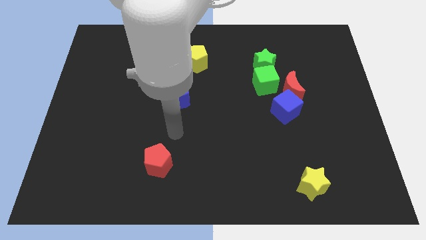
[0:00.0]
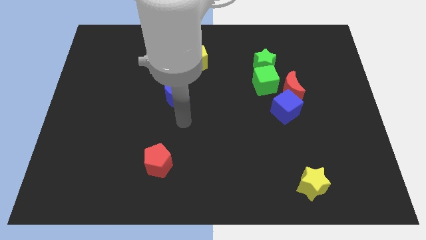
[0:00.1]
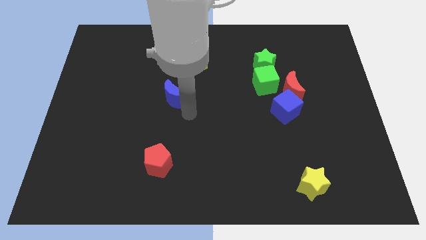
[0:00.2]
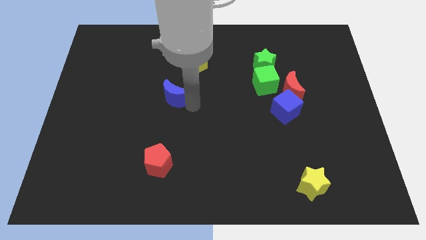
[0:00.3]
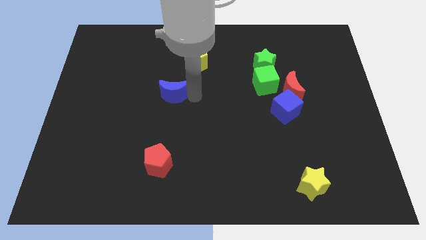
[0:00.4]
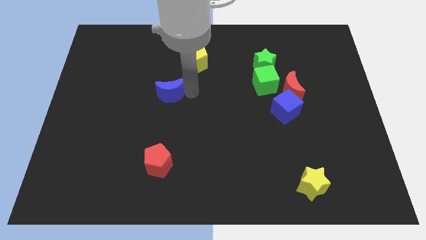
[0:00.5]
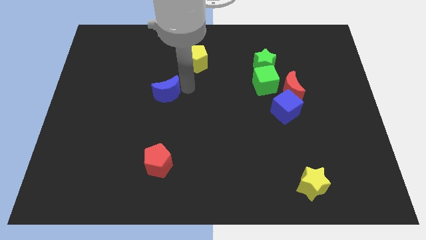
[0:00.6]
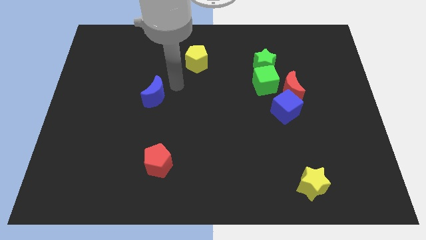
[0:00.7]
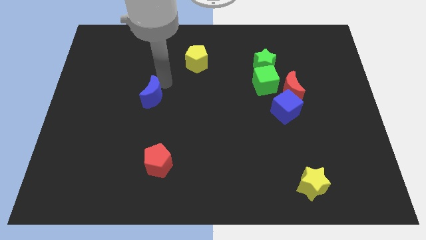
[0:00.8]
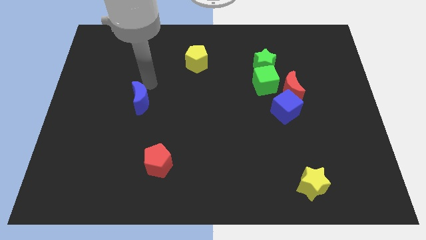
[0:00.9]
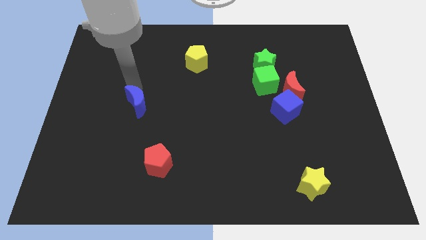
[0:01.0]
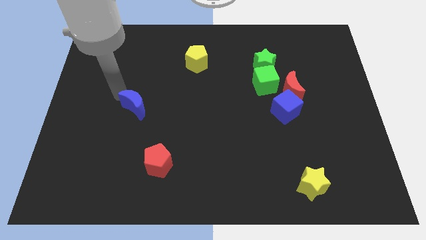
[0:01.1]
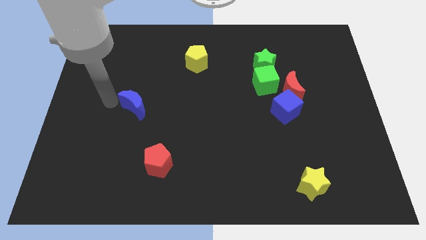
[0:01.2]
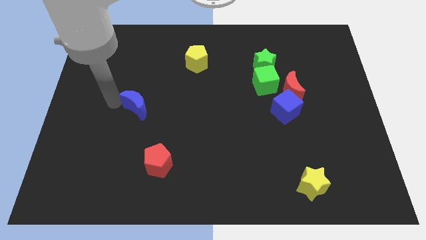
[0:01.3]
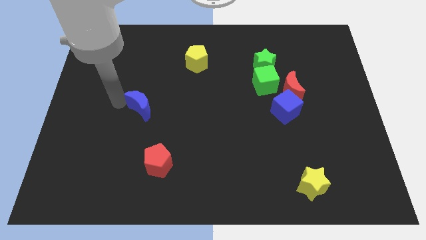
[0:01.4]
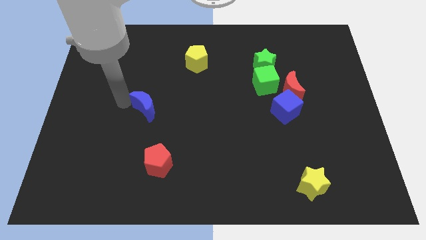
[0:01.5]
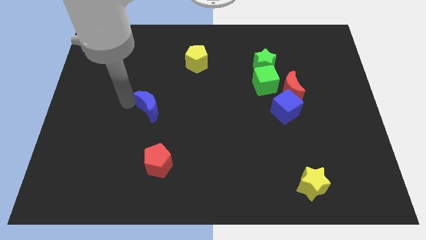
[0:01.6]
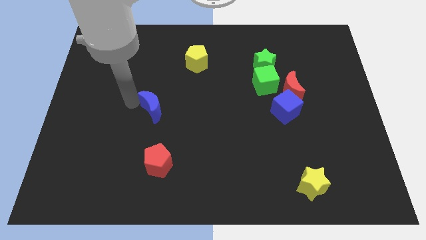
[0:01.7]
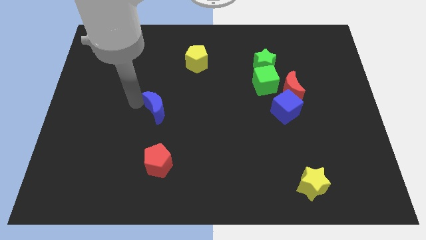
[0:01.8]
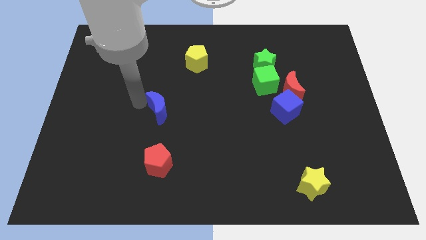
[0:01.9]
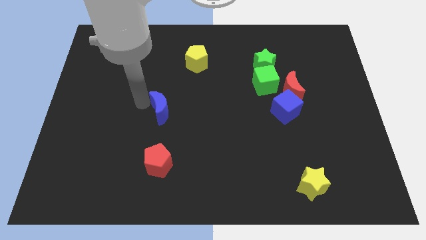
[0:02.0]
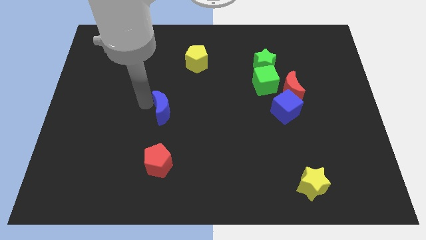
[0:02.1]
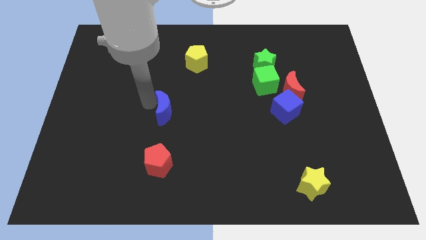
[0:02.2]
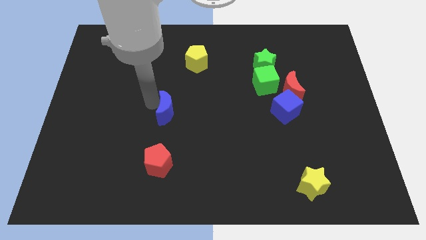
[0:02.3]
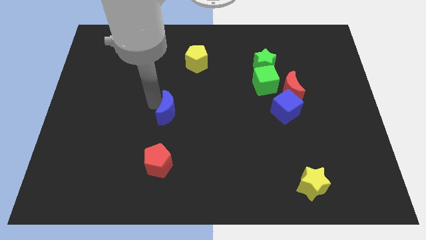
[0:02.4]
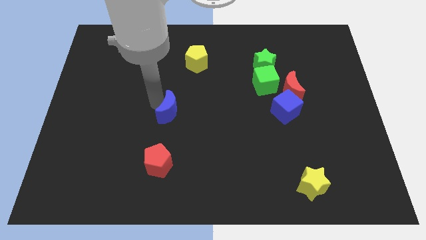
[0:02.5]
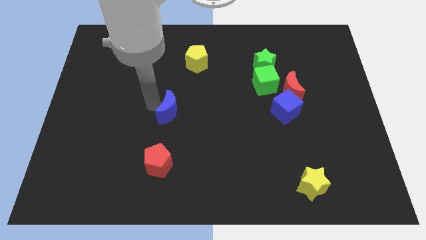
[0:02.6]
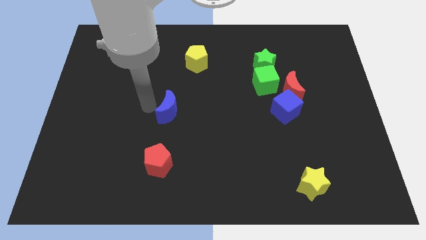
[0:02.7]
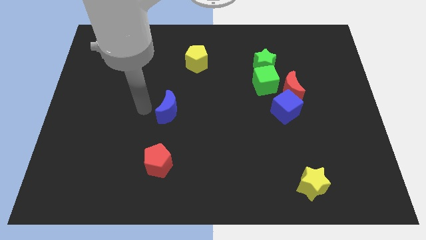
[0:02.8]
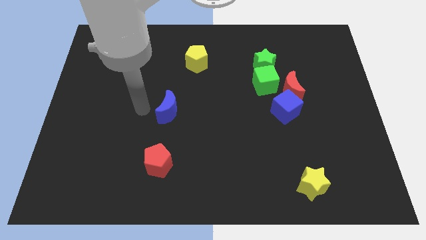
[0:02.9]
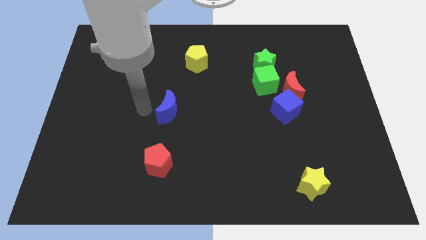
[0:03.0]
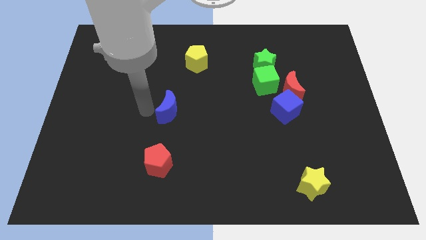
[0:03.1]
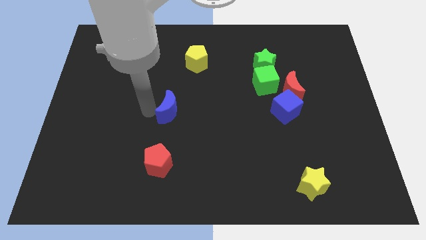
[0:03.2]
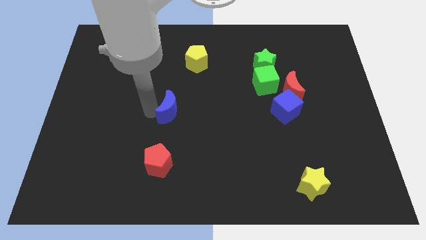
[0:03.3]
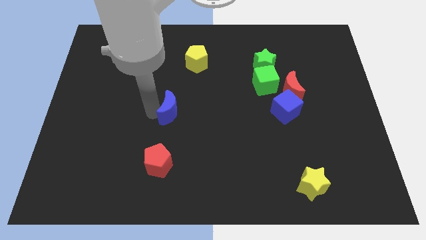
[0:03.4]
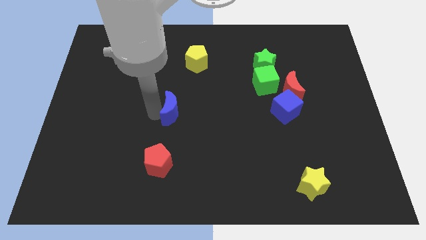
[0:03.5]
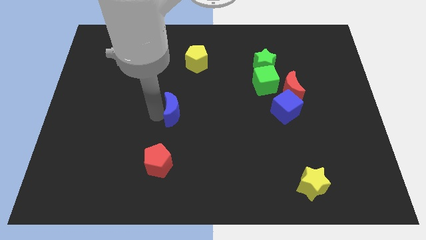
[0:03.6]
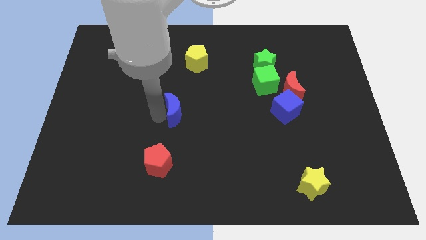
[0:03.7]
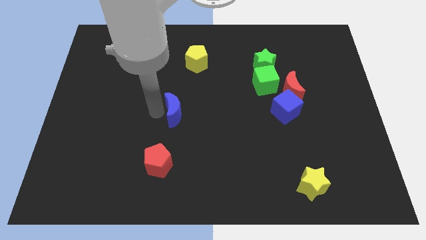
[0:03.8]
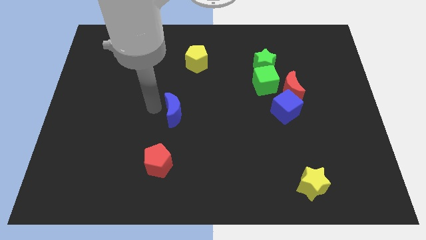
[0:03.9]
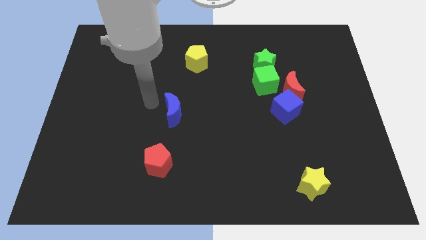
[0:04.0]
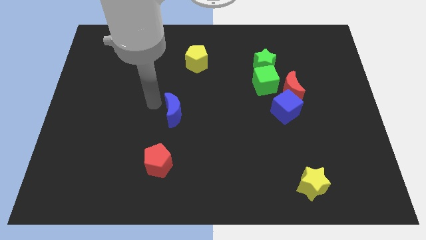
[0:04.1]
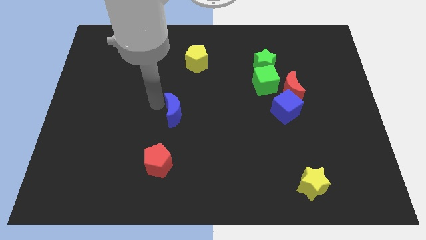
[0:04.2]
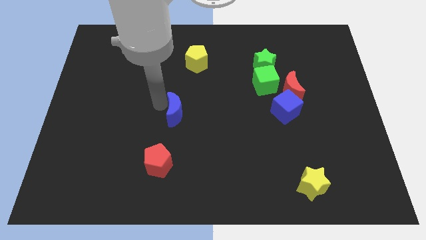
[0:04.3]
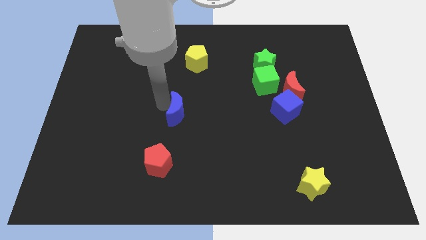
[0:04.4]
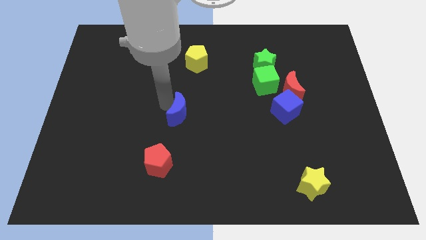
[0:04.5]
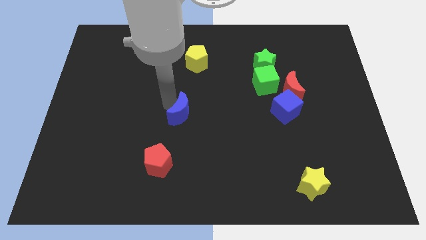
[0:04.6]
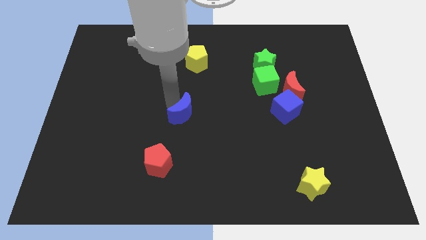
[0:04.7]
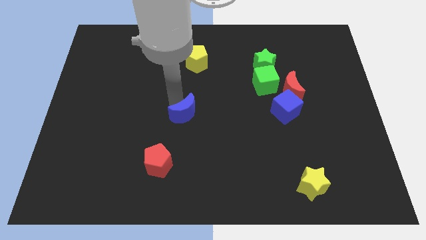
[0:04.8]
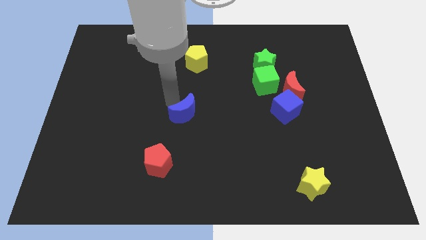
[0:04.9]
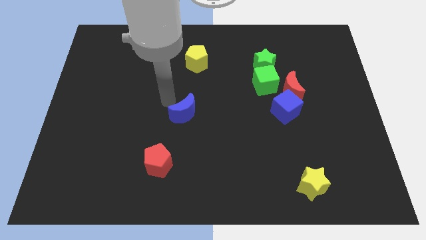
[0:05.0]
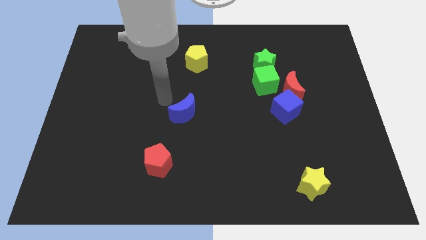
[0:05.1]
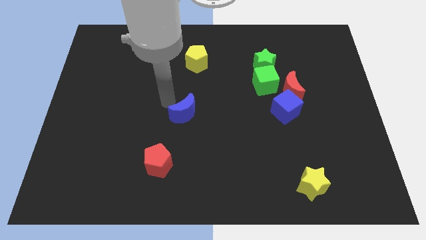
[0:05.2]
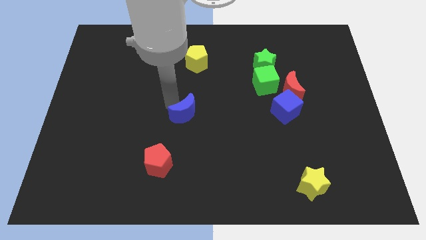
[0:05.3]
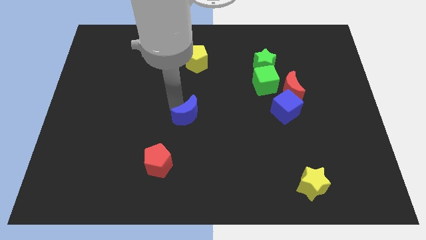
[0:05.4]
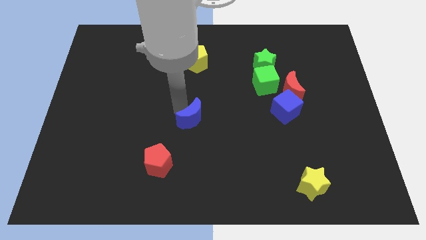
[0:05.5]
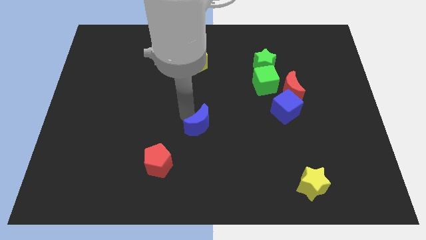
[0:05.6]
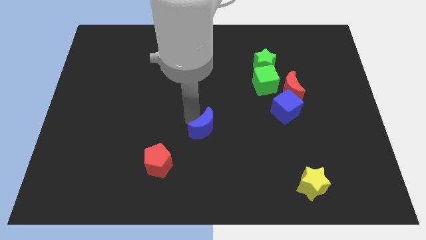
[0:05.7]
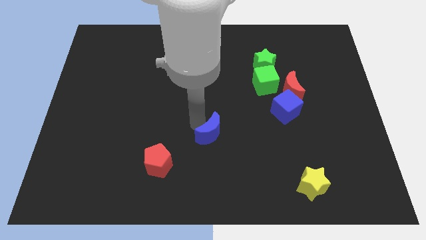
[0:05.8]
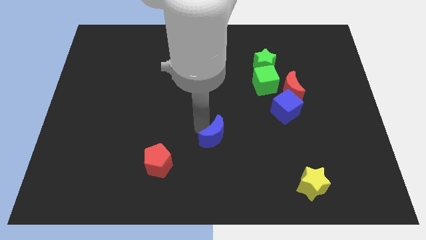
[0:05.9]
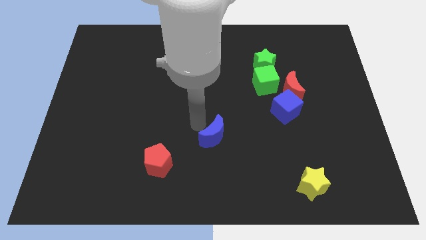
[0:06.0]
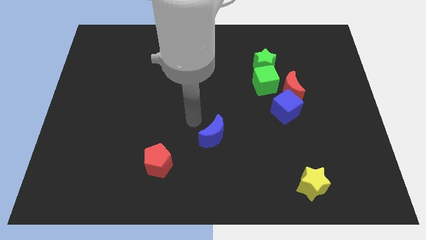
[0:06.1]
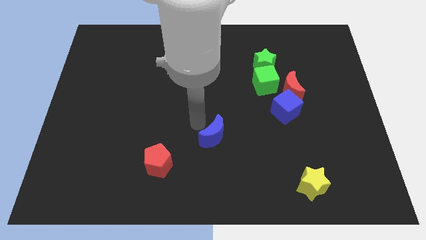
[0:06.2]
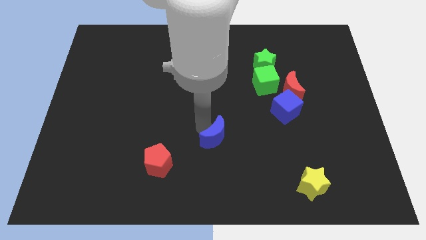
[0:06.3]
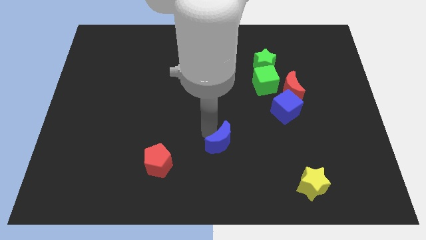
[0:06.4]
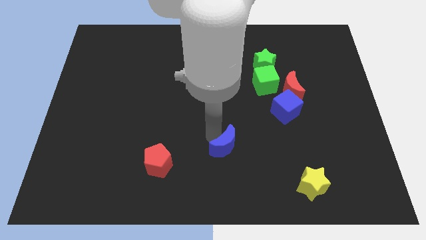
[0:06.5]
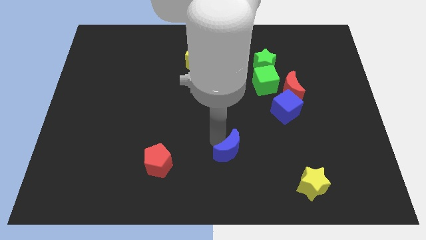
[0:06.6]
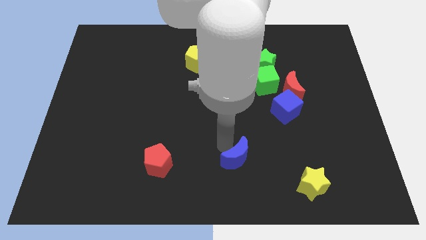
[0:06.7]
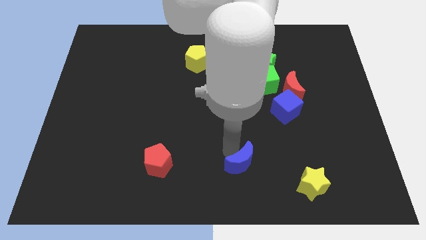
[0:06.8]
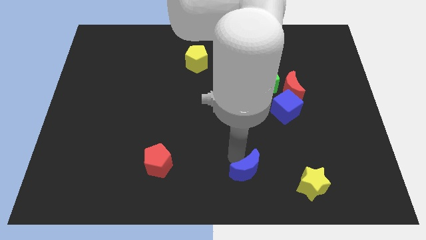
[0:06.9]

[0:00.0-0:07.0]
put the blue moon just left of the yellow star
